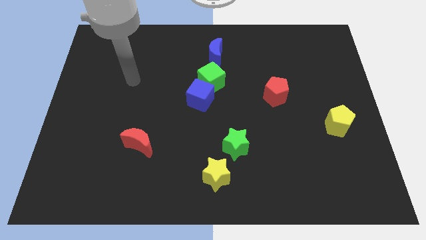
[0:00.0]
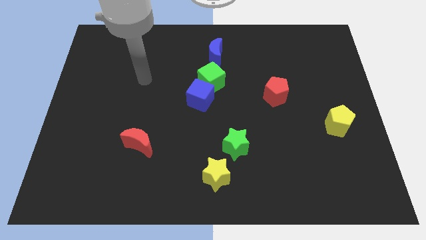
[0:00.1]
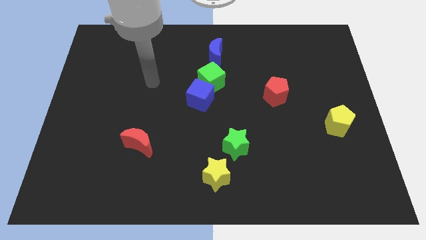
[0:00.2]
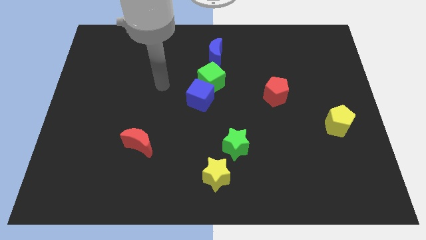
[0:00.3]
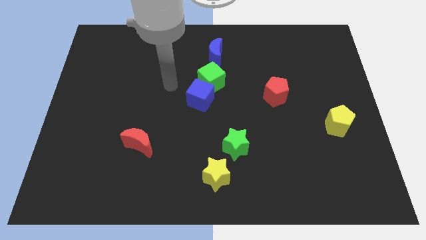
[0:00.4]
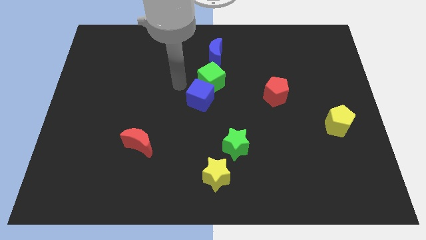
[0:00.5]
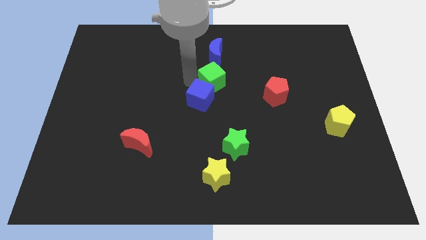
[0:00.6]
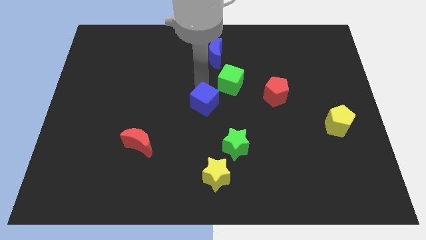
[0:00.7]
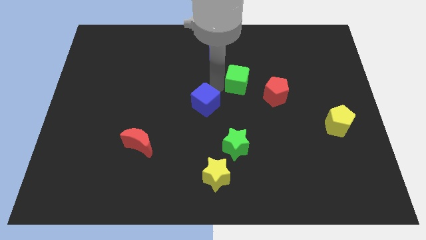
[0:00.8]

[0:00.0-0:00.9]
pull the blue cube apart from the green cube

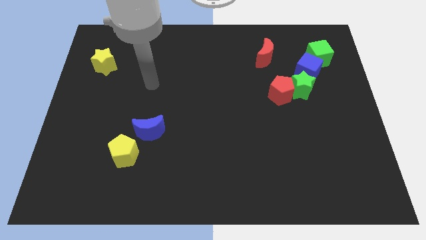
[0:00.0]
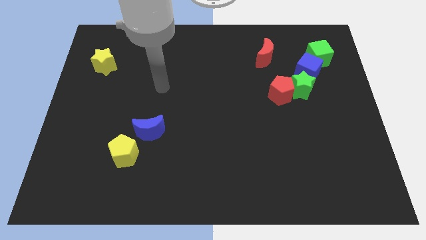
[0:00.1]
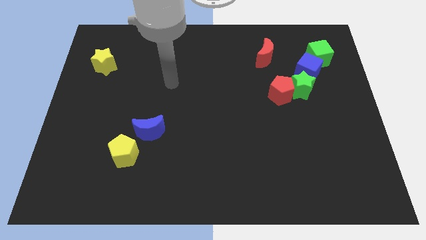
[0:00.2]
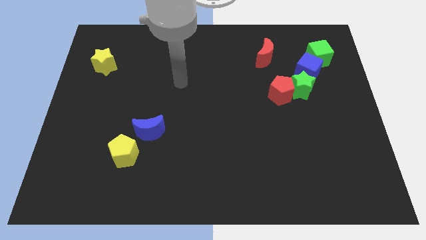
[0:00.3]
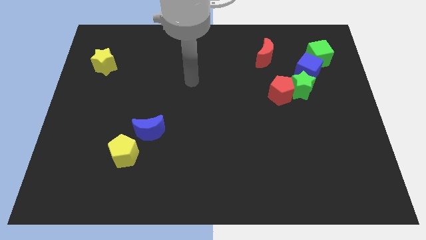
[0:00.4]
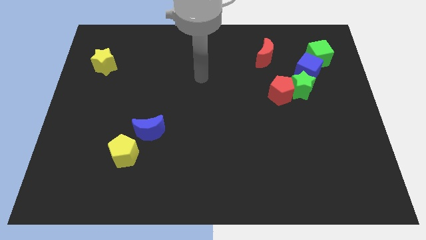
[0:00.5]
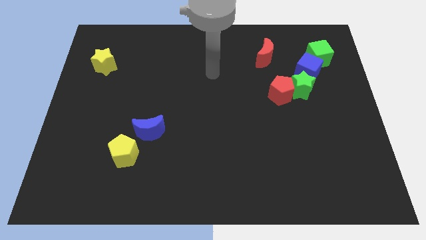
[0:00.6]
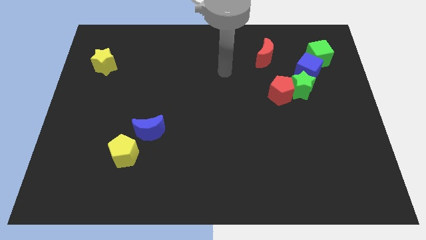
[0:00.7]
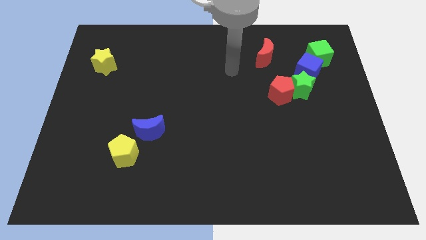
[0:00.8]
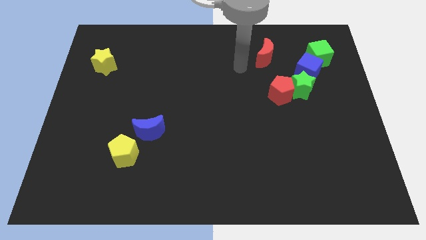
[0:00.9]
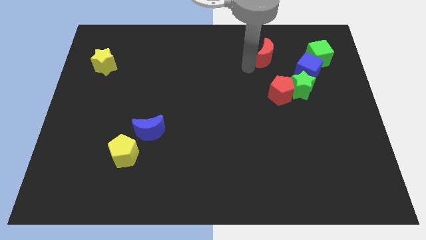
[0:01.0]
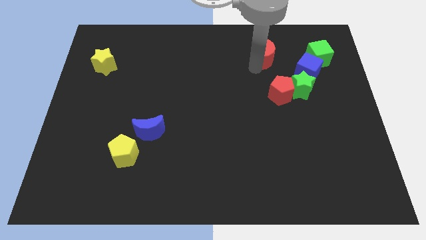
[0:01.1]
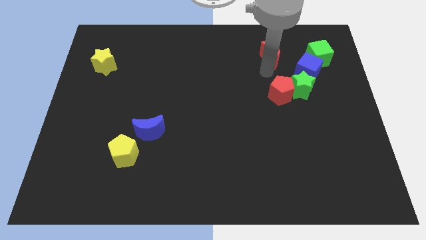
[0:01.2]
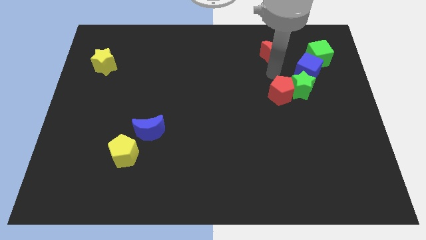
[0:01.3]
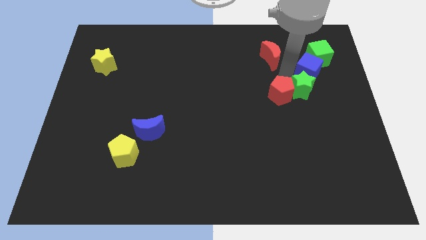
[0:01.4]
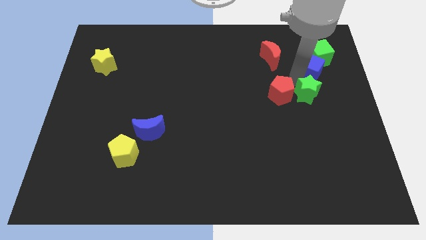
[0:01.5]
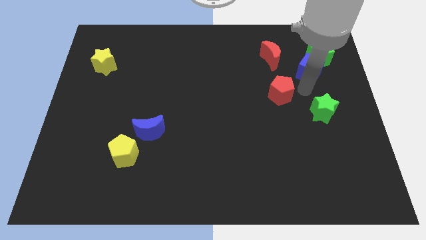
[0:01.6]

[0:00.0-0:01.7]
separate the red pentagon from the green star

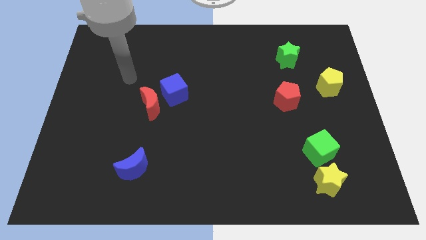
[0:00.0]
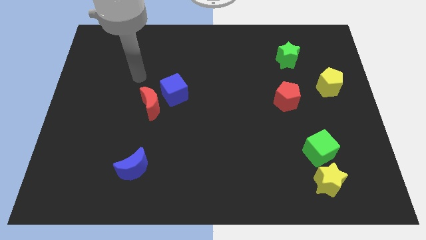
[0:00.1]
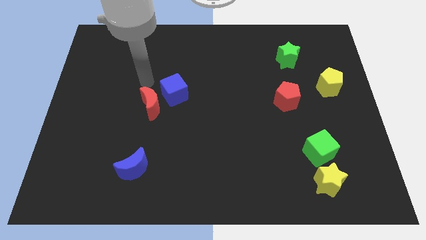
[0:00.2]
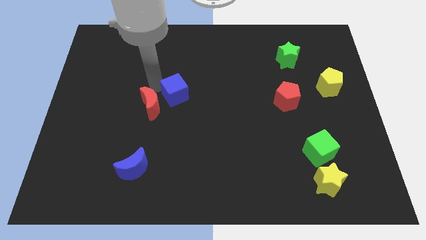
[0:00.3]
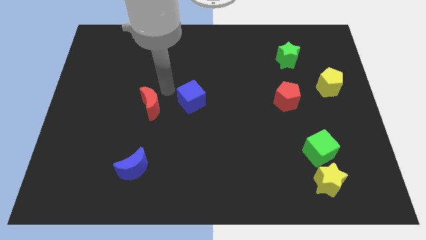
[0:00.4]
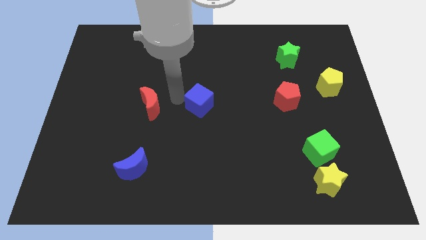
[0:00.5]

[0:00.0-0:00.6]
separate the red moon from the blue cube

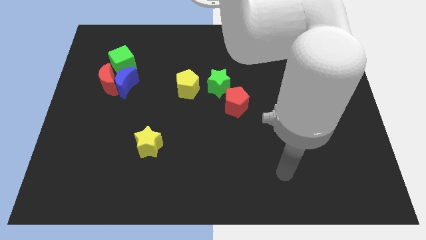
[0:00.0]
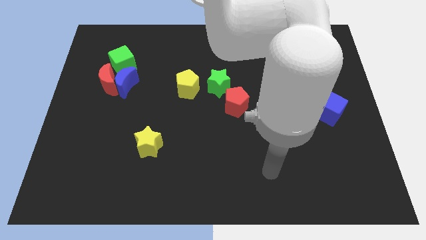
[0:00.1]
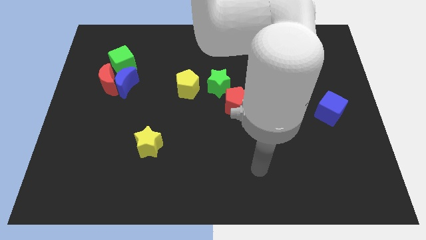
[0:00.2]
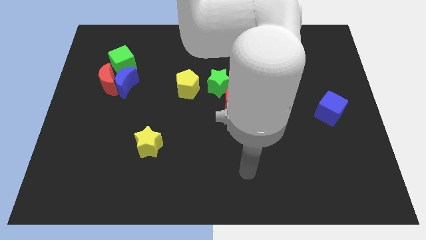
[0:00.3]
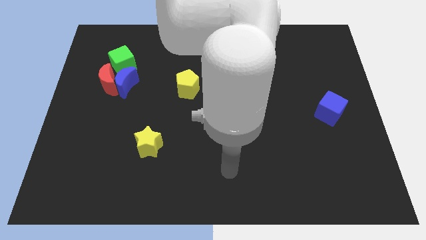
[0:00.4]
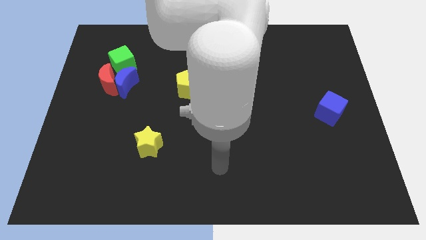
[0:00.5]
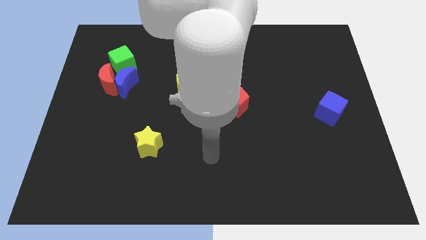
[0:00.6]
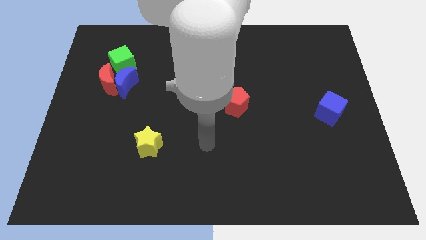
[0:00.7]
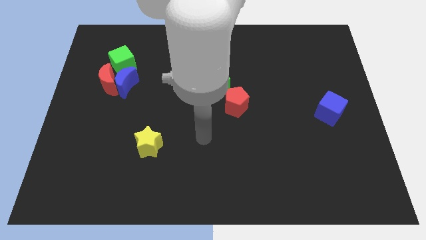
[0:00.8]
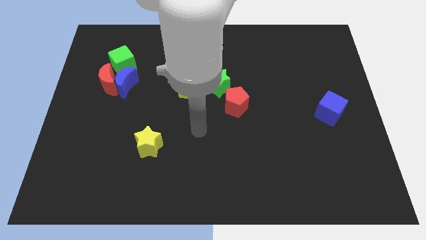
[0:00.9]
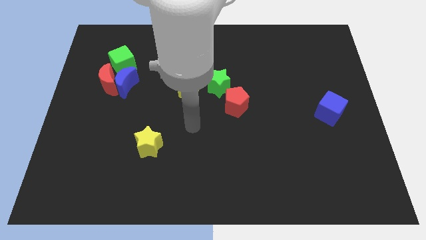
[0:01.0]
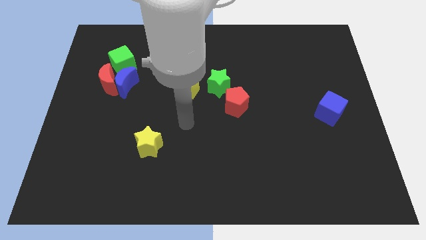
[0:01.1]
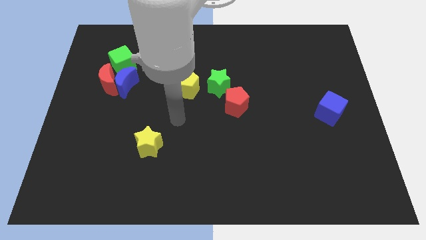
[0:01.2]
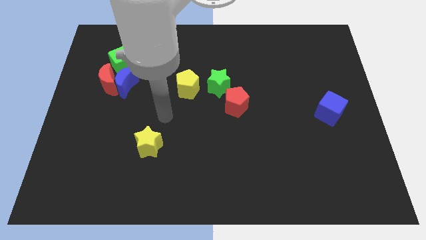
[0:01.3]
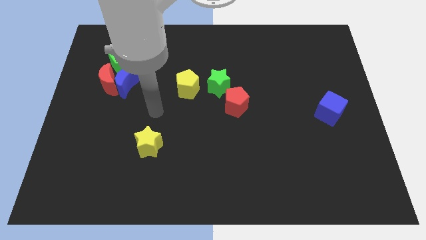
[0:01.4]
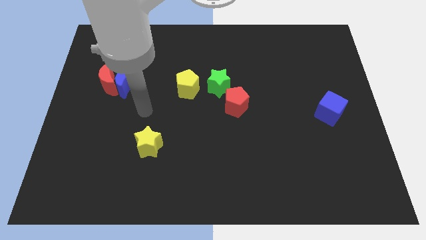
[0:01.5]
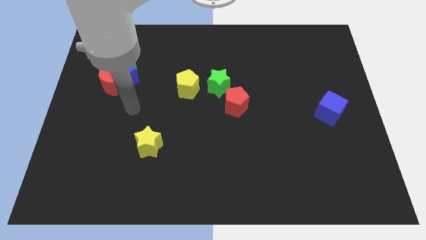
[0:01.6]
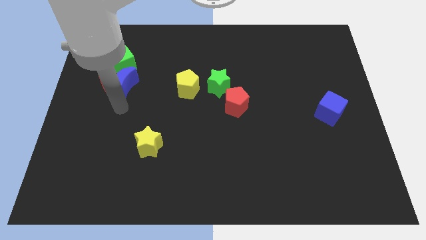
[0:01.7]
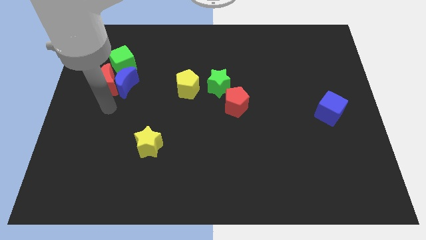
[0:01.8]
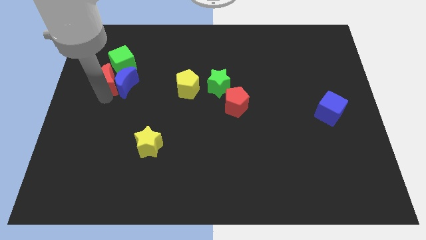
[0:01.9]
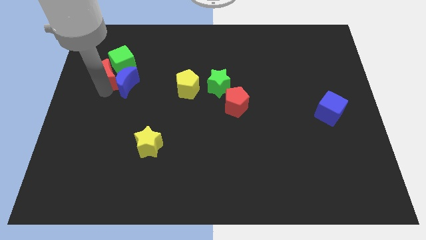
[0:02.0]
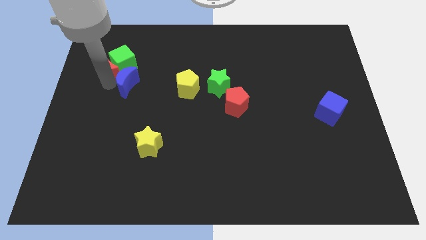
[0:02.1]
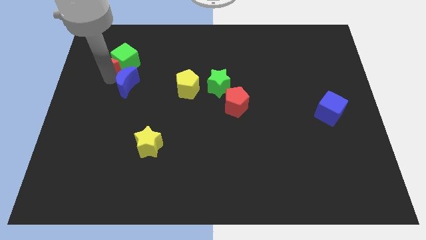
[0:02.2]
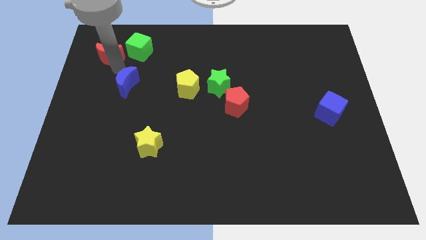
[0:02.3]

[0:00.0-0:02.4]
move the blue moon away from the red moon and green cube

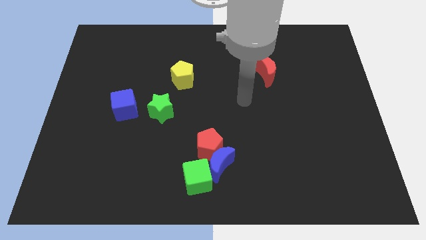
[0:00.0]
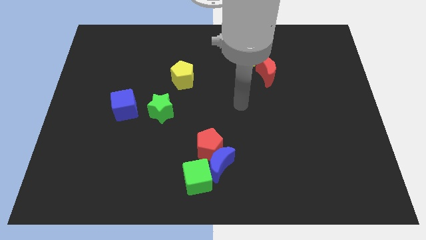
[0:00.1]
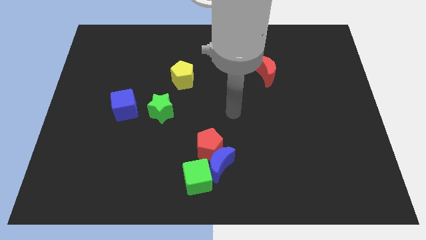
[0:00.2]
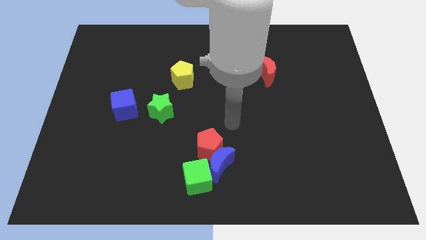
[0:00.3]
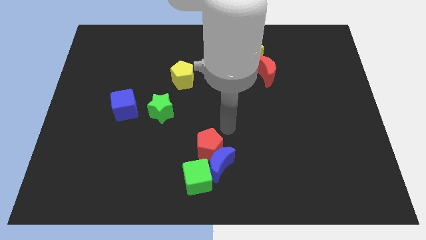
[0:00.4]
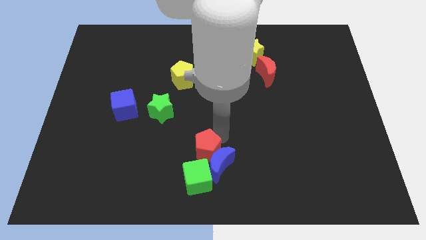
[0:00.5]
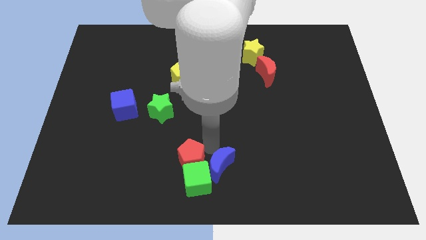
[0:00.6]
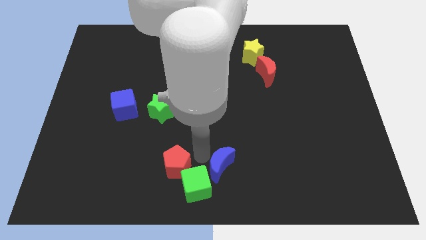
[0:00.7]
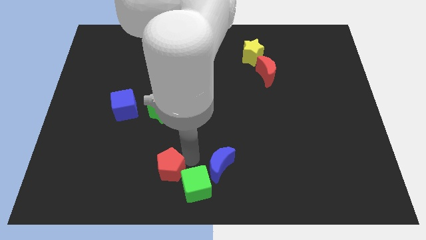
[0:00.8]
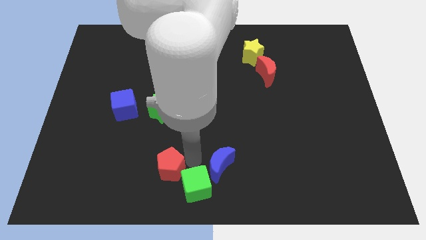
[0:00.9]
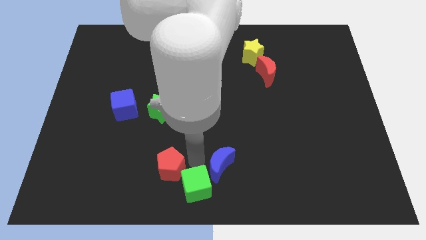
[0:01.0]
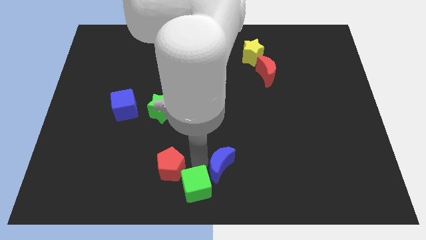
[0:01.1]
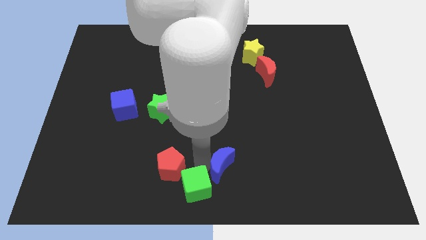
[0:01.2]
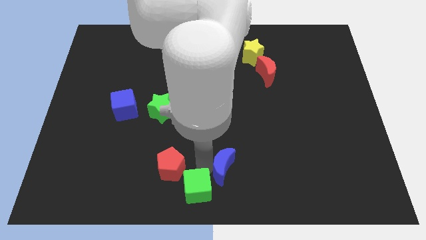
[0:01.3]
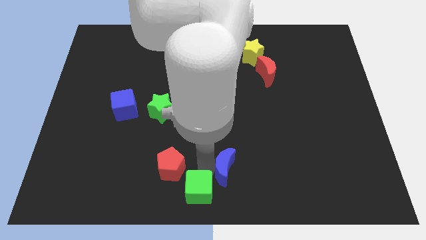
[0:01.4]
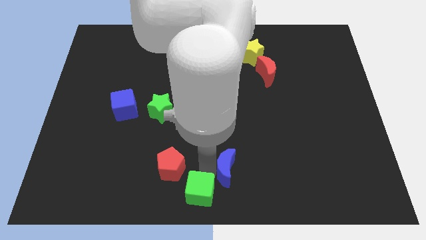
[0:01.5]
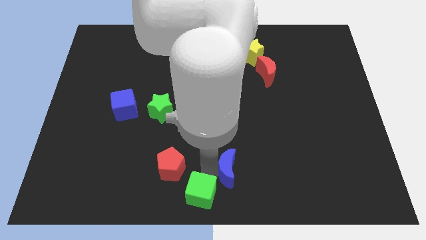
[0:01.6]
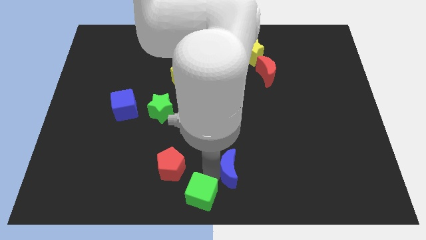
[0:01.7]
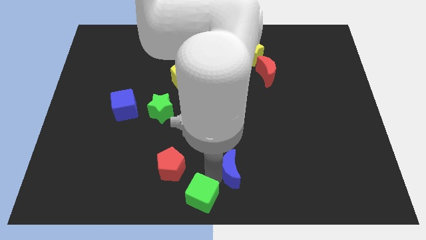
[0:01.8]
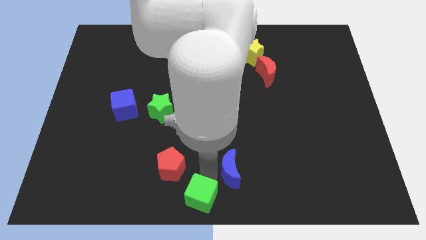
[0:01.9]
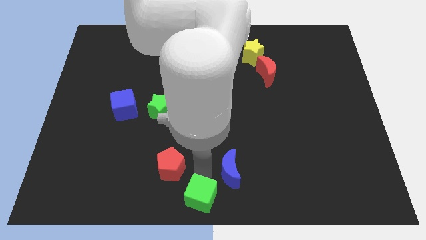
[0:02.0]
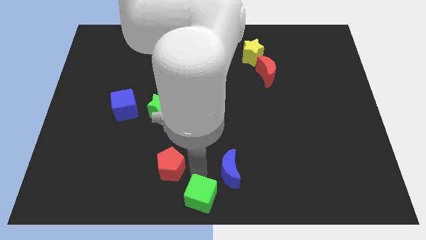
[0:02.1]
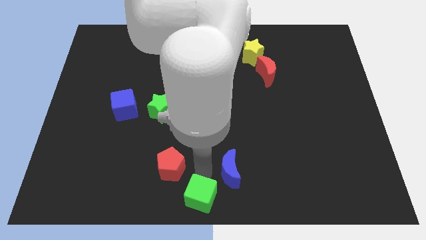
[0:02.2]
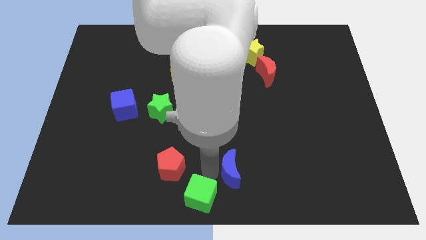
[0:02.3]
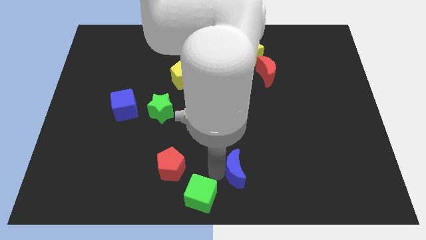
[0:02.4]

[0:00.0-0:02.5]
move the blue moon away from the red pentagon and green cube

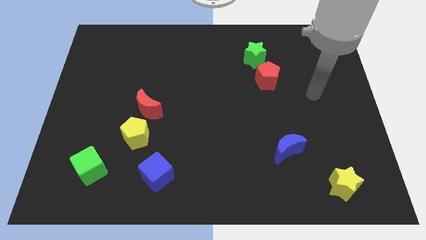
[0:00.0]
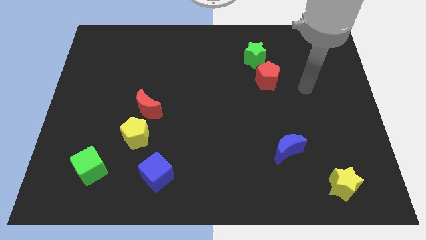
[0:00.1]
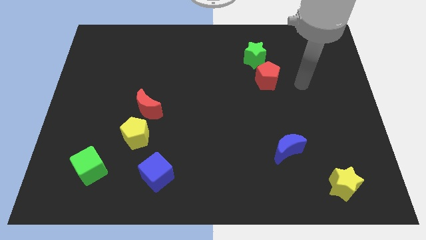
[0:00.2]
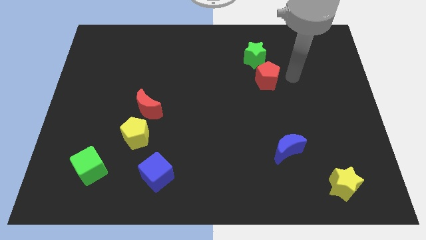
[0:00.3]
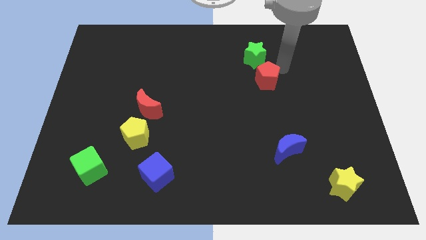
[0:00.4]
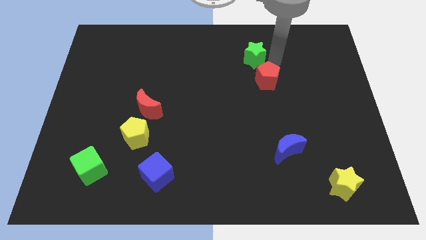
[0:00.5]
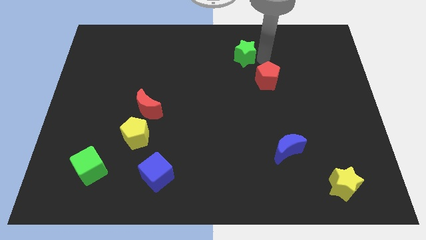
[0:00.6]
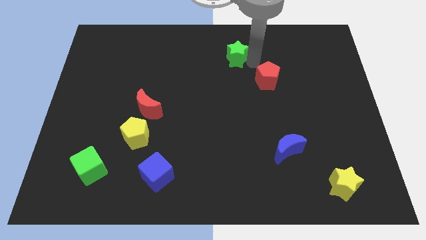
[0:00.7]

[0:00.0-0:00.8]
move the red pentagon away from the green star

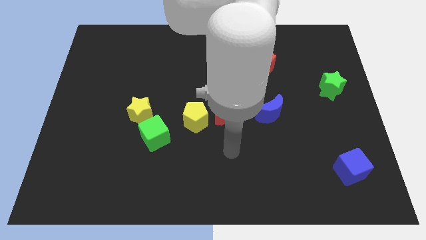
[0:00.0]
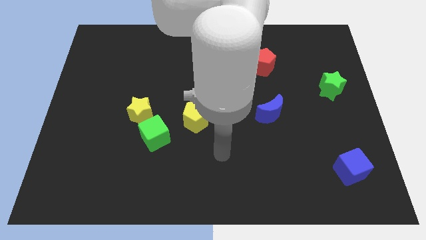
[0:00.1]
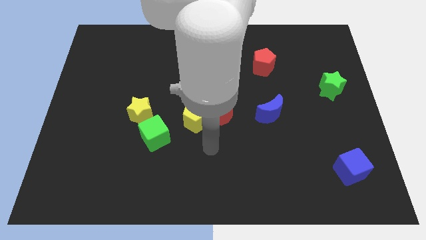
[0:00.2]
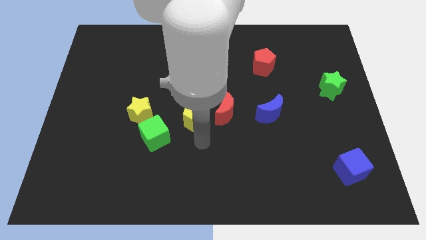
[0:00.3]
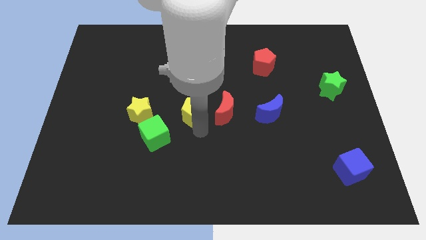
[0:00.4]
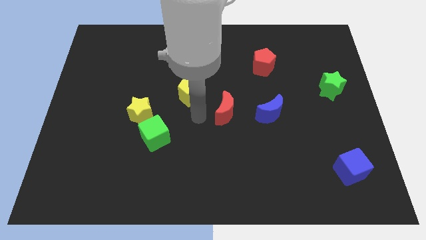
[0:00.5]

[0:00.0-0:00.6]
separate the red moon from the yellow pentagon
